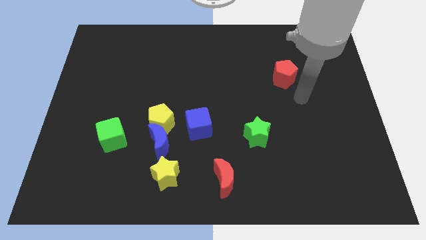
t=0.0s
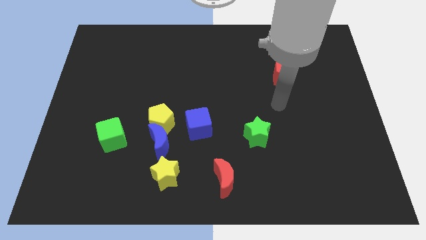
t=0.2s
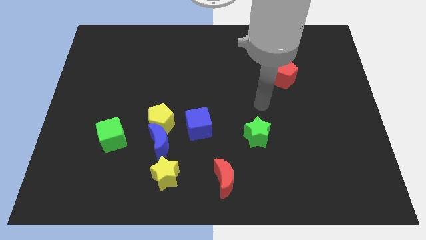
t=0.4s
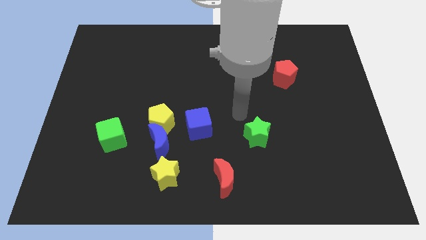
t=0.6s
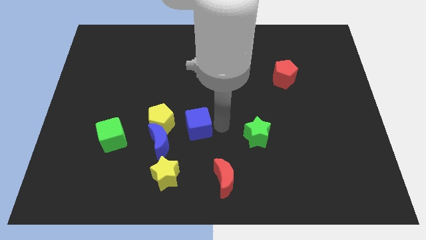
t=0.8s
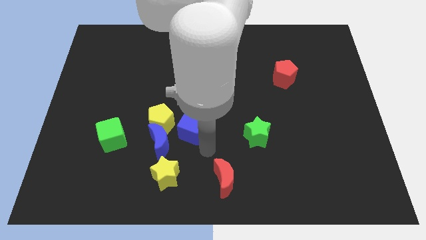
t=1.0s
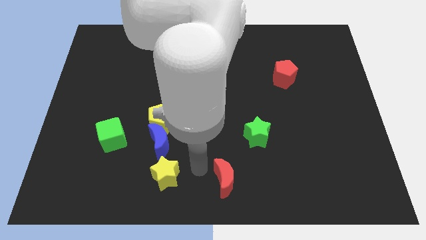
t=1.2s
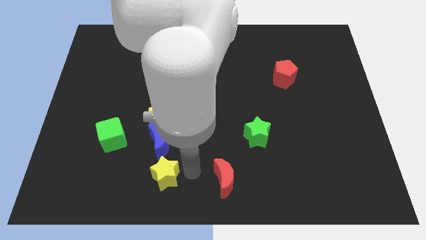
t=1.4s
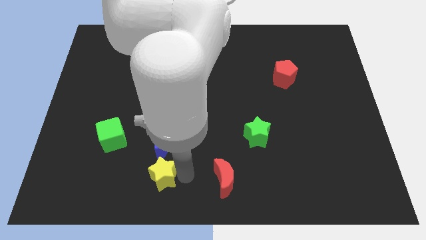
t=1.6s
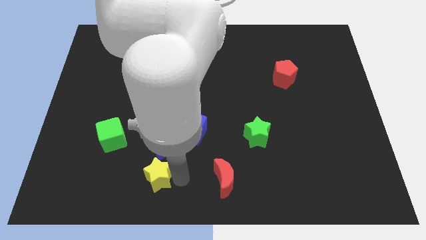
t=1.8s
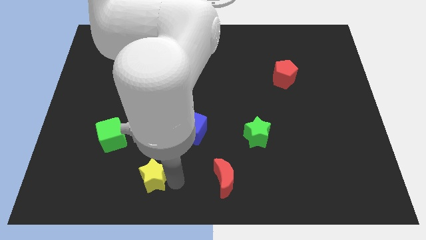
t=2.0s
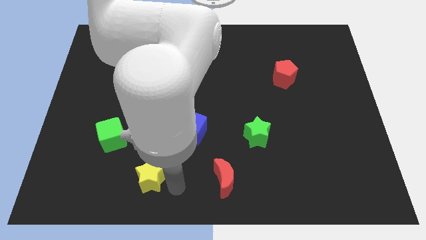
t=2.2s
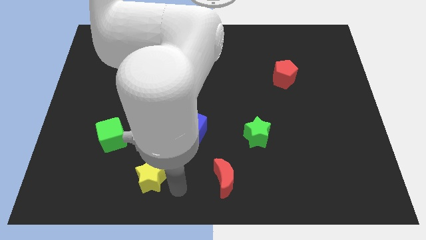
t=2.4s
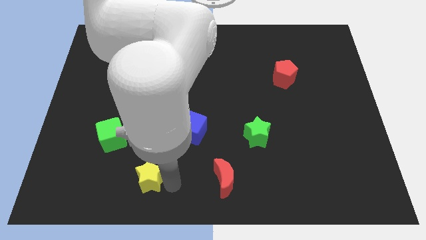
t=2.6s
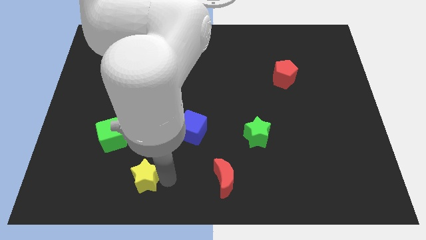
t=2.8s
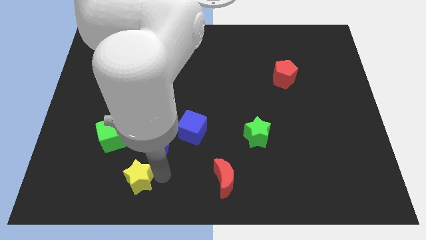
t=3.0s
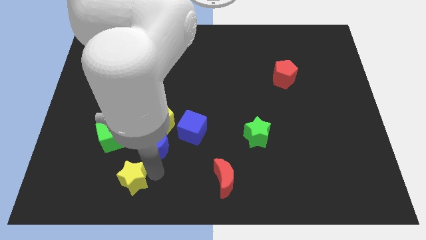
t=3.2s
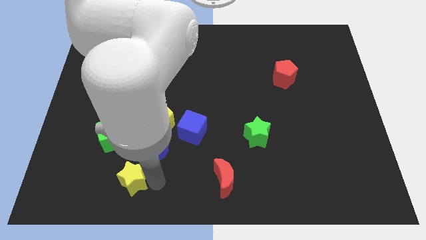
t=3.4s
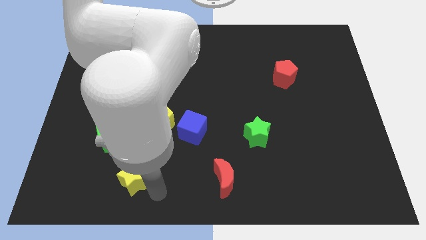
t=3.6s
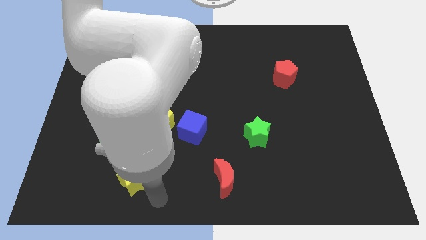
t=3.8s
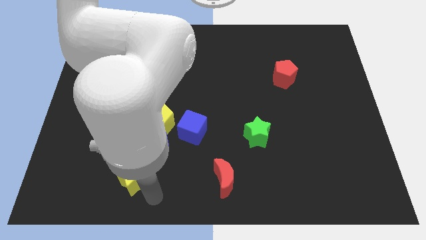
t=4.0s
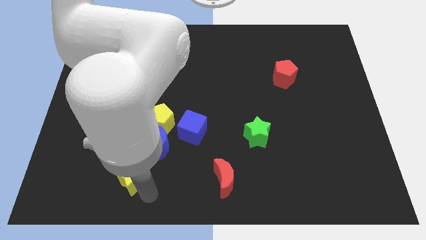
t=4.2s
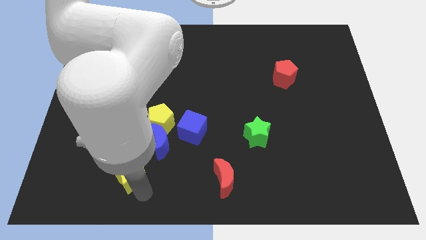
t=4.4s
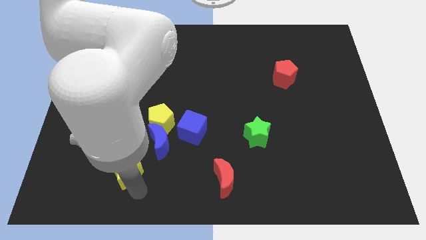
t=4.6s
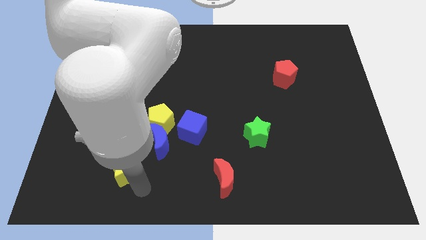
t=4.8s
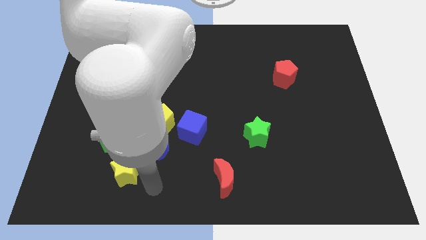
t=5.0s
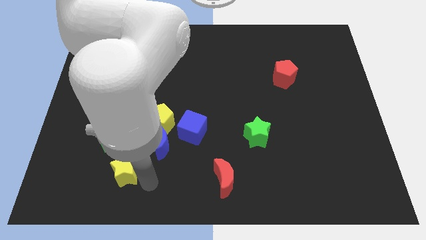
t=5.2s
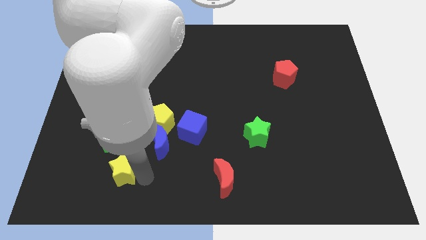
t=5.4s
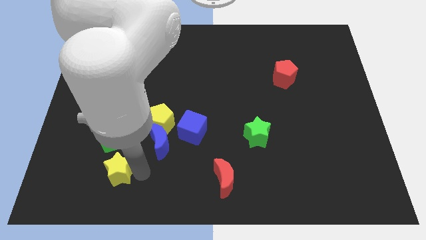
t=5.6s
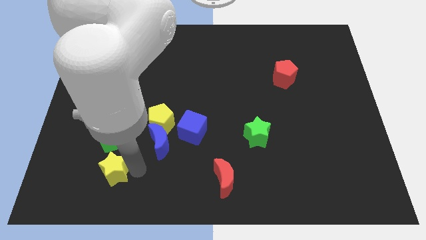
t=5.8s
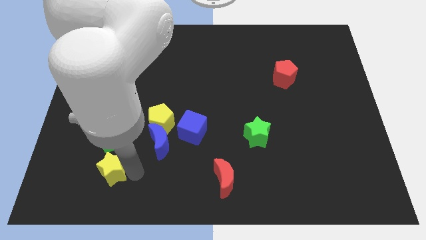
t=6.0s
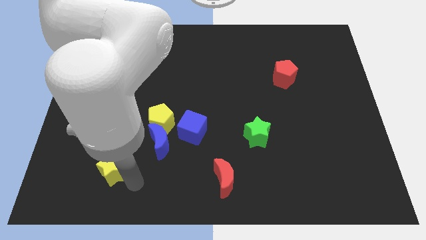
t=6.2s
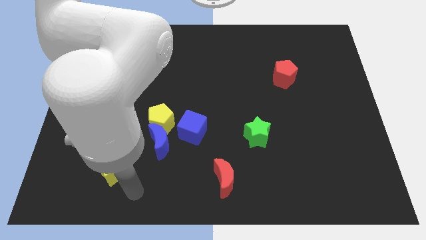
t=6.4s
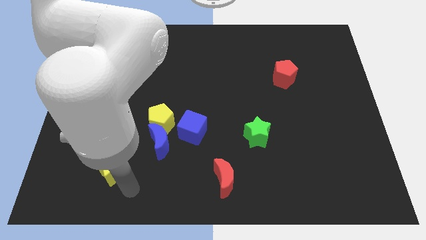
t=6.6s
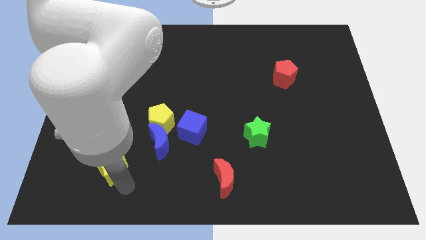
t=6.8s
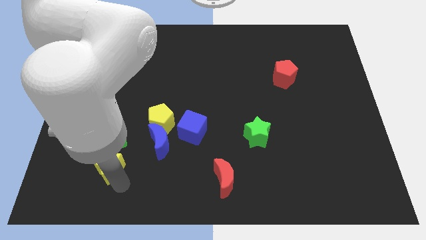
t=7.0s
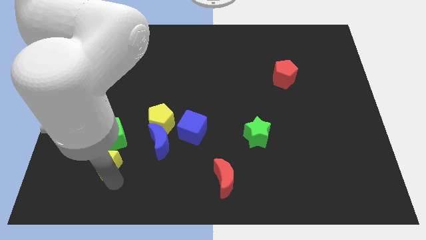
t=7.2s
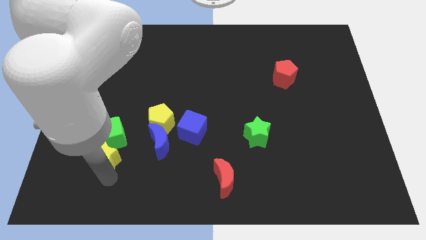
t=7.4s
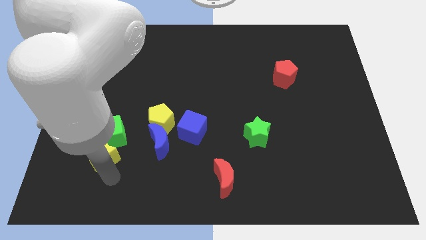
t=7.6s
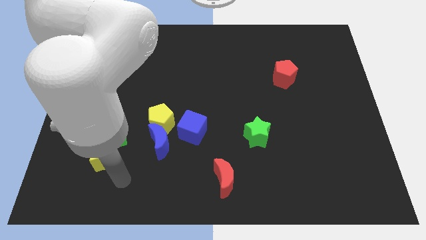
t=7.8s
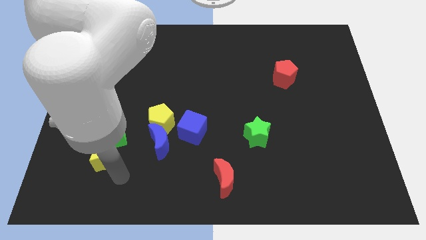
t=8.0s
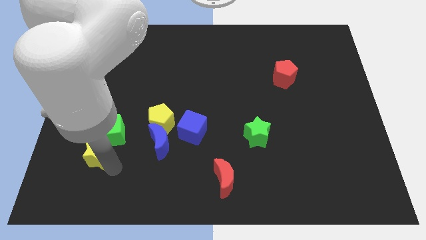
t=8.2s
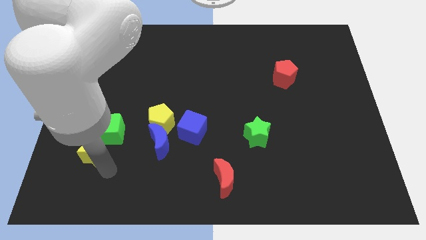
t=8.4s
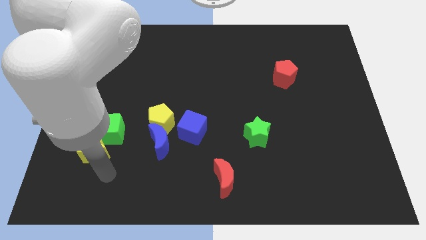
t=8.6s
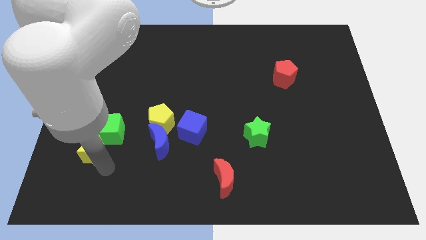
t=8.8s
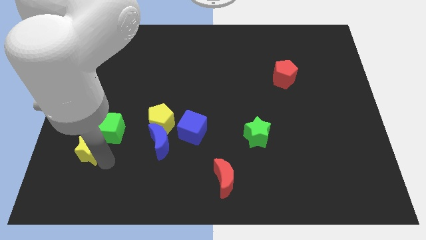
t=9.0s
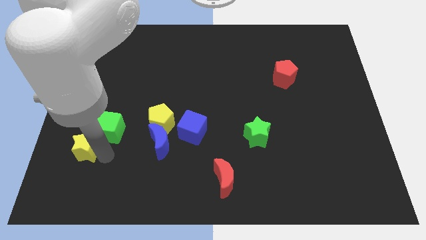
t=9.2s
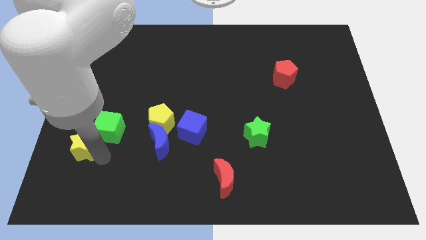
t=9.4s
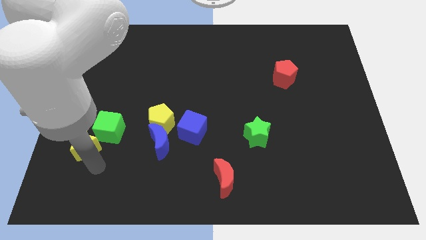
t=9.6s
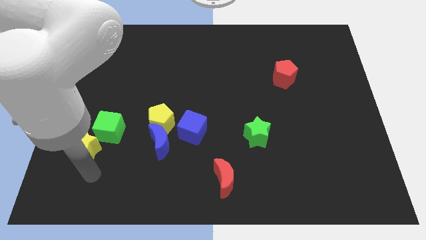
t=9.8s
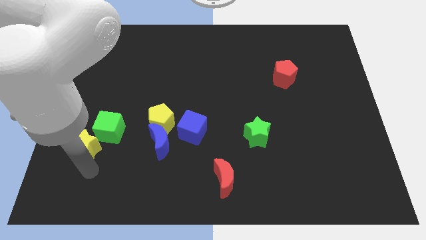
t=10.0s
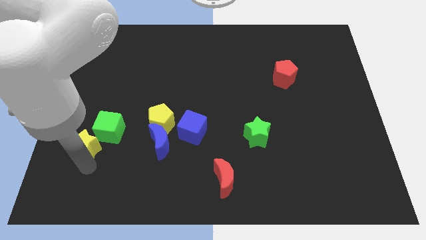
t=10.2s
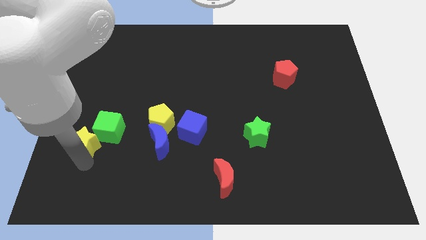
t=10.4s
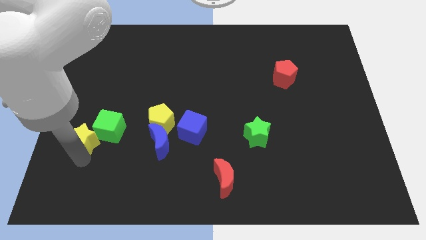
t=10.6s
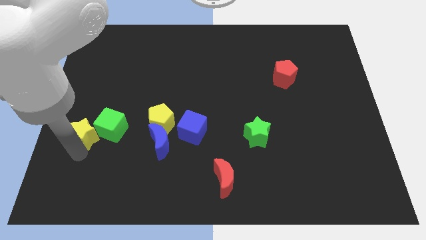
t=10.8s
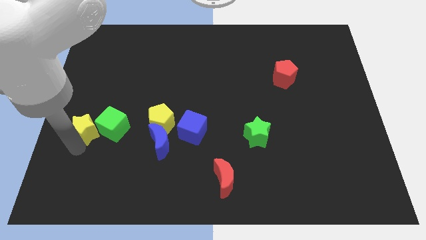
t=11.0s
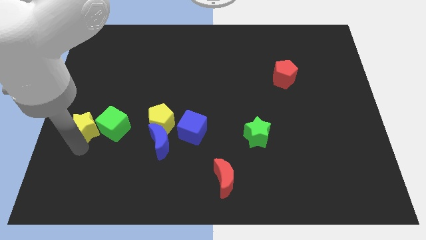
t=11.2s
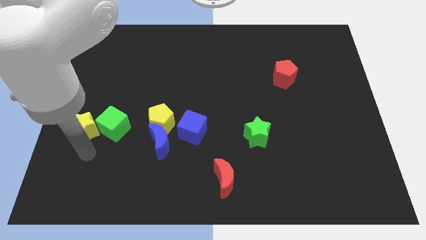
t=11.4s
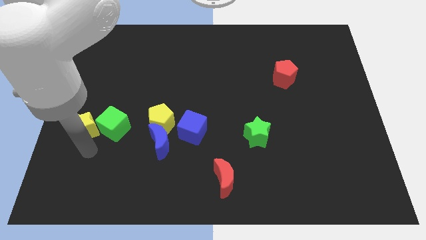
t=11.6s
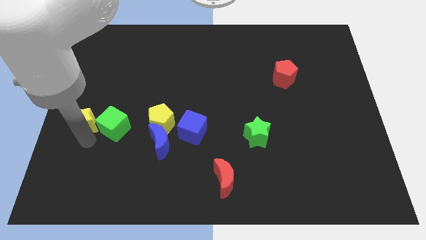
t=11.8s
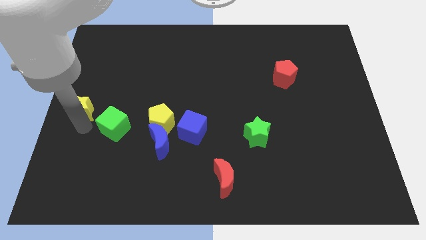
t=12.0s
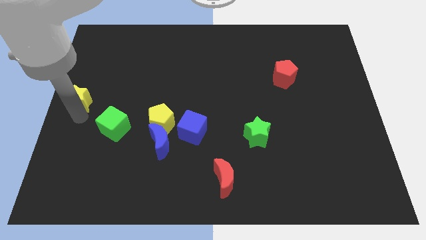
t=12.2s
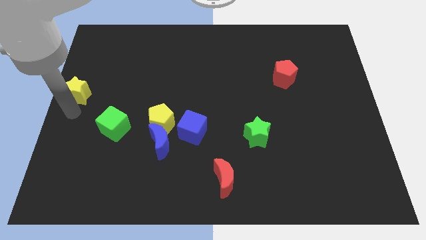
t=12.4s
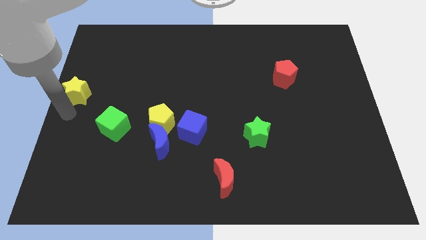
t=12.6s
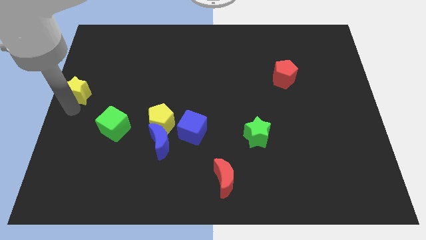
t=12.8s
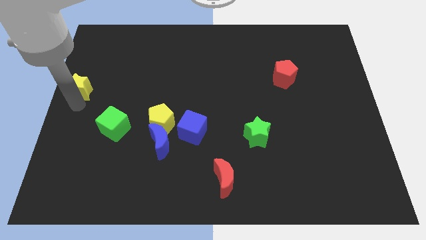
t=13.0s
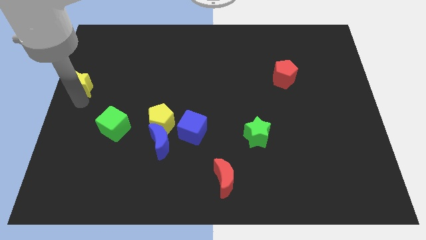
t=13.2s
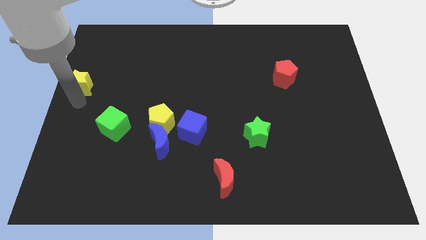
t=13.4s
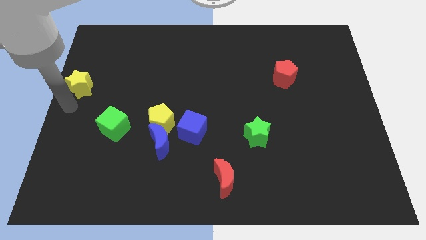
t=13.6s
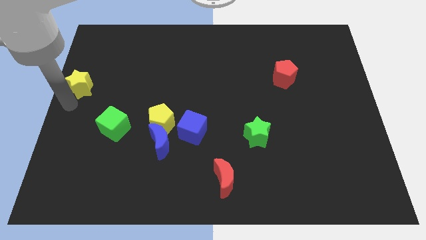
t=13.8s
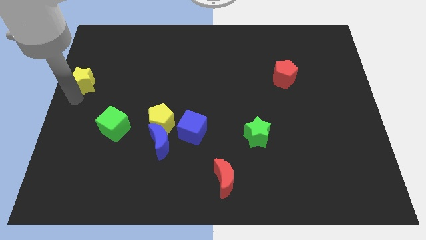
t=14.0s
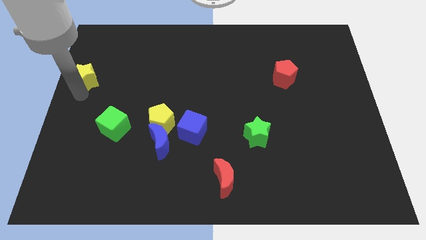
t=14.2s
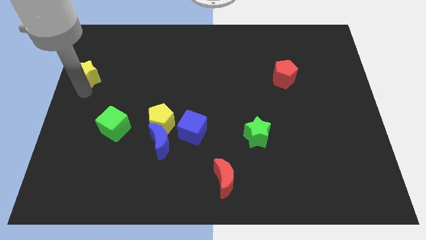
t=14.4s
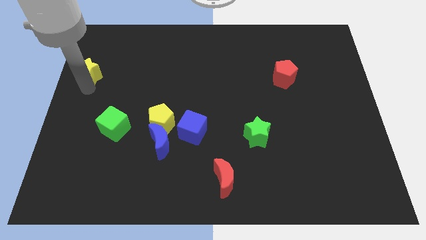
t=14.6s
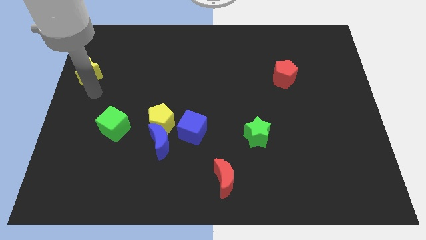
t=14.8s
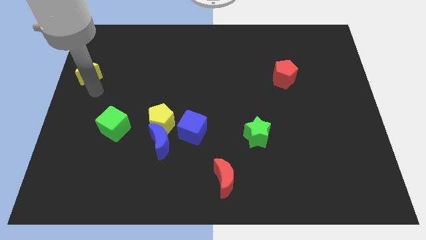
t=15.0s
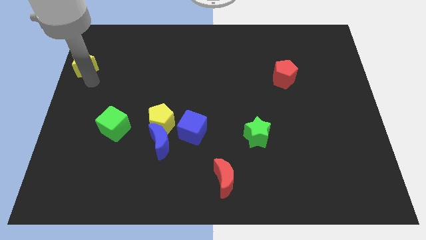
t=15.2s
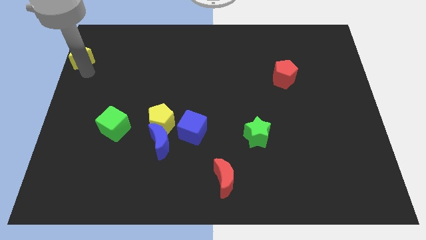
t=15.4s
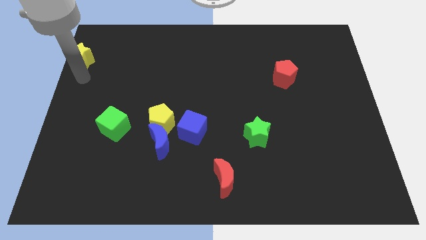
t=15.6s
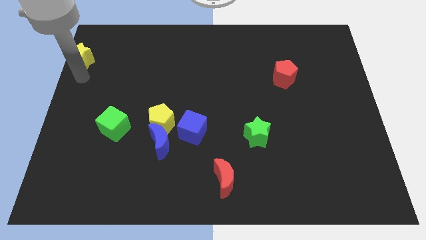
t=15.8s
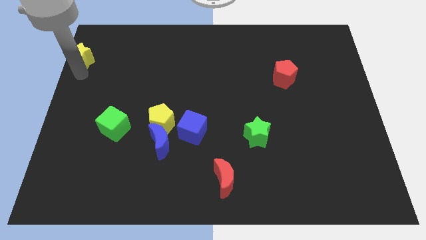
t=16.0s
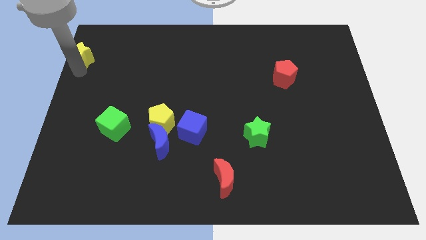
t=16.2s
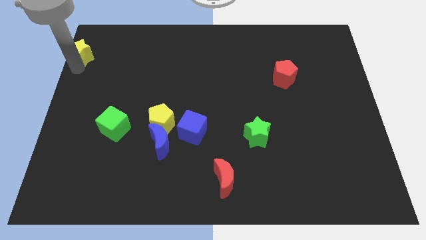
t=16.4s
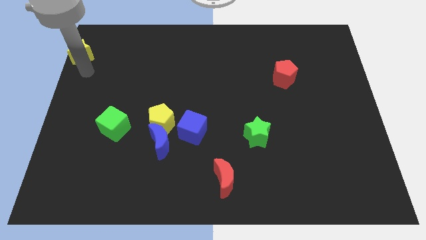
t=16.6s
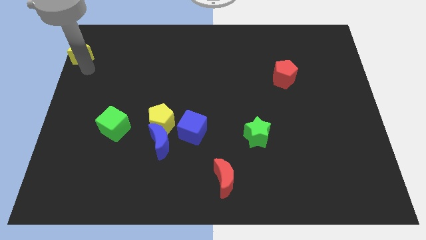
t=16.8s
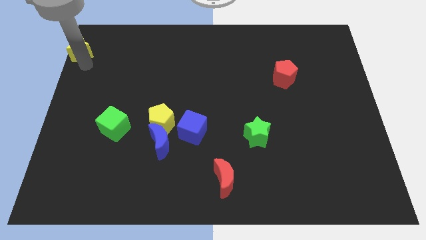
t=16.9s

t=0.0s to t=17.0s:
push the yellow star to the top left corner
